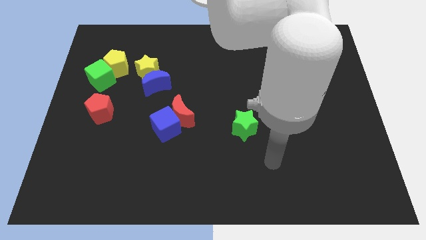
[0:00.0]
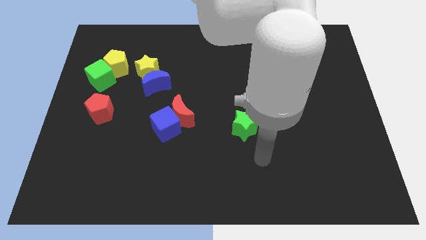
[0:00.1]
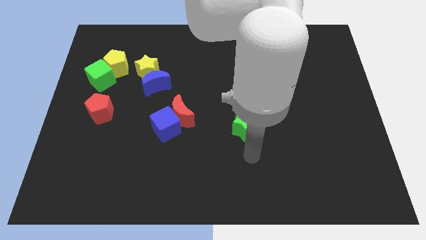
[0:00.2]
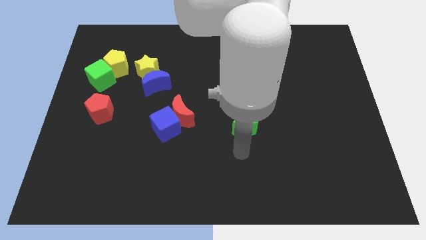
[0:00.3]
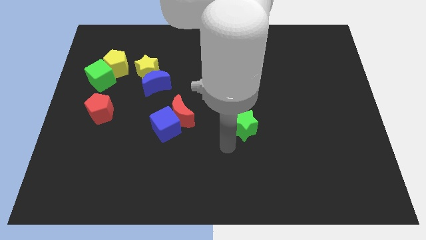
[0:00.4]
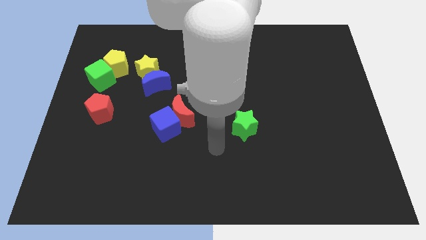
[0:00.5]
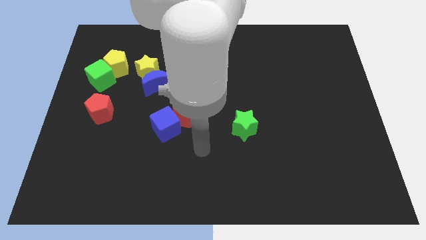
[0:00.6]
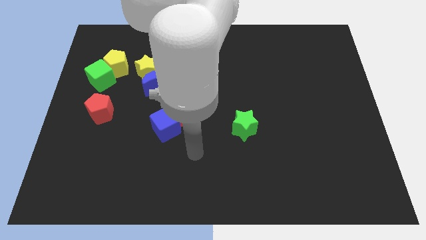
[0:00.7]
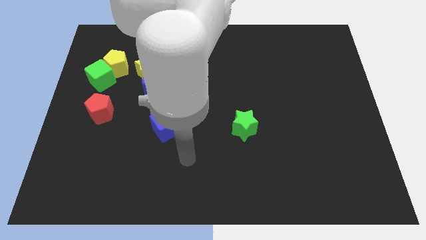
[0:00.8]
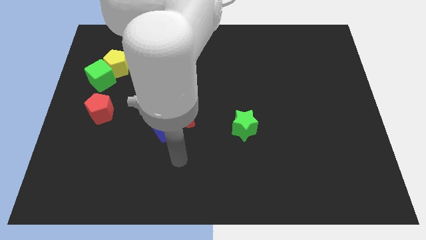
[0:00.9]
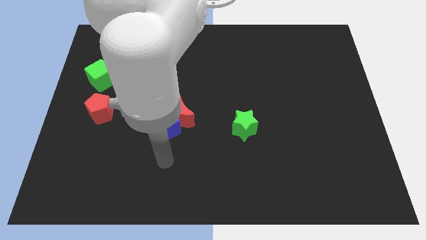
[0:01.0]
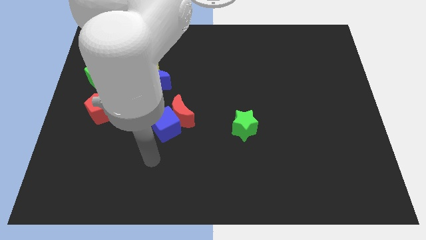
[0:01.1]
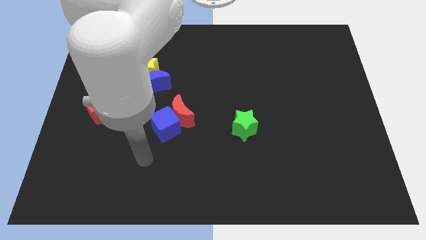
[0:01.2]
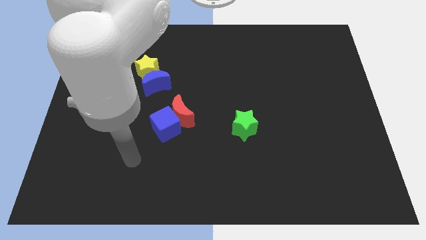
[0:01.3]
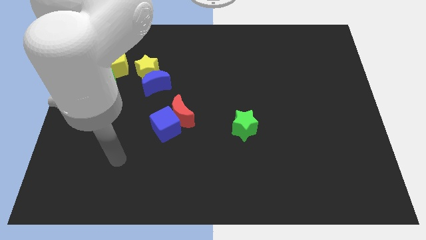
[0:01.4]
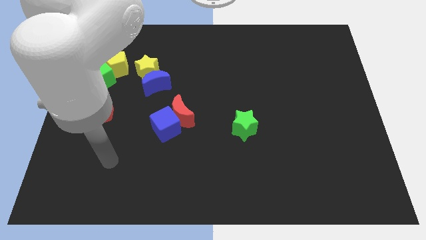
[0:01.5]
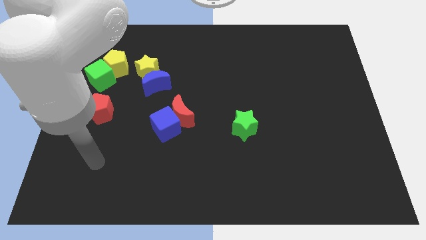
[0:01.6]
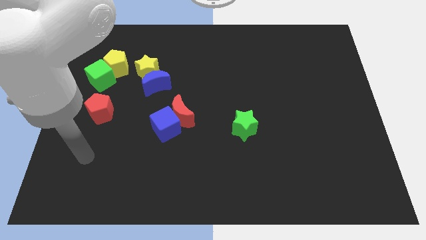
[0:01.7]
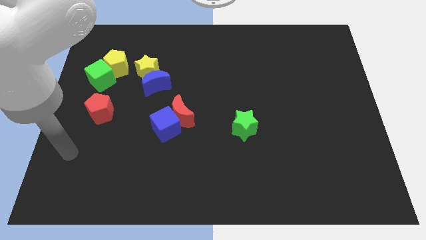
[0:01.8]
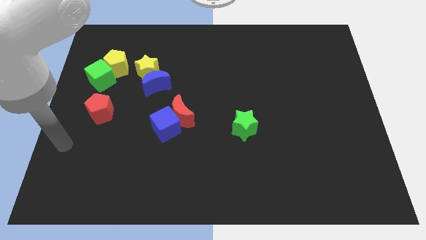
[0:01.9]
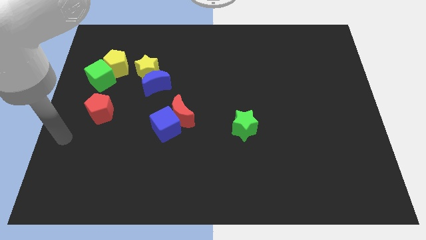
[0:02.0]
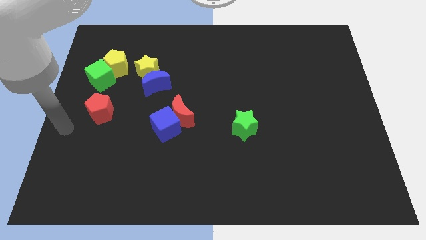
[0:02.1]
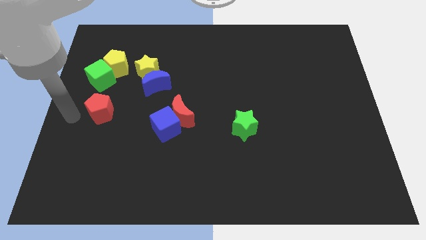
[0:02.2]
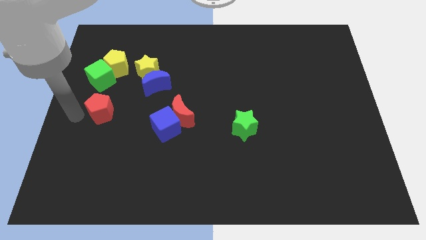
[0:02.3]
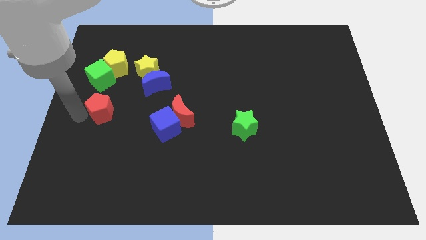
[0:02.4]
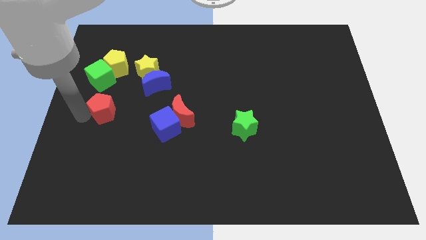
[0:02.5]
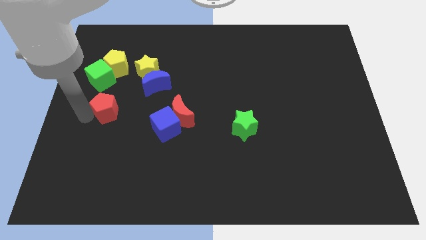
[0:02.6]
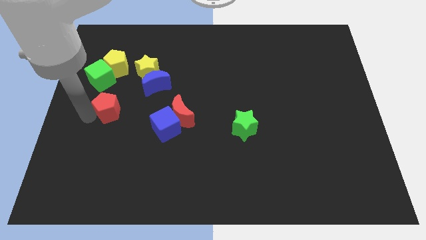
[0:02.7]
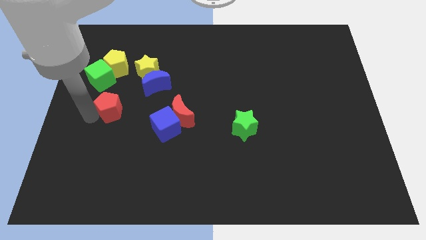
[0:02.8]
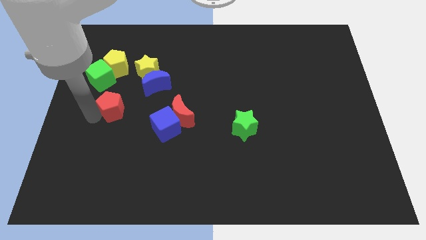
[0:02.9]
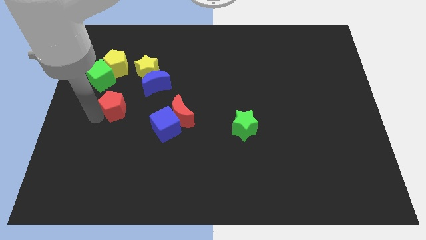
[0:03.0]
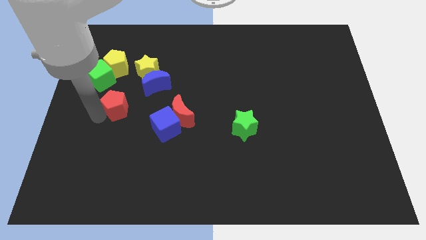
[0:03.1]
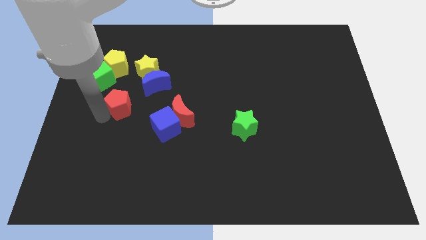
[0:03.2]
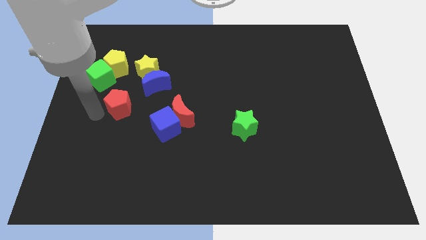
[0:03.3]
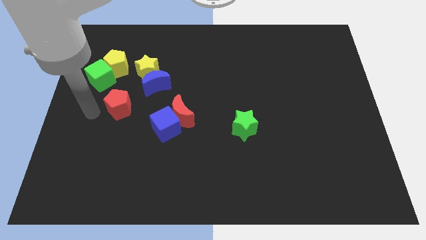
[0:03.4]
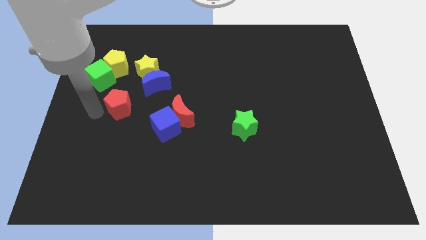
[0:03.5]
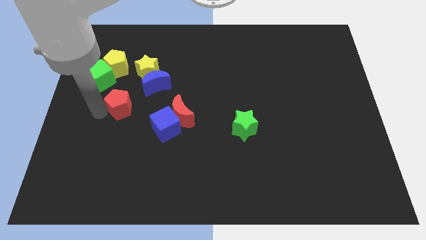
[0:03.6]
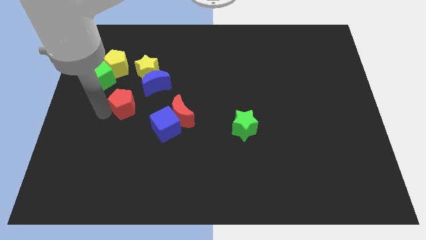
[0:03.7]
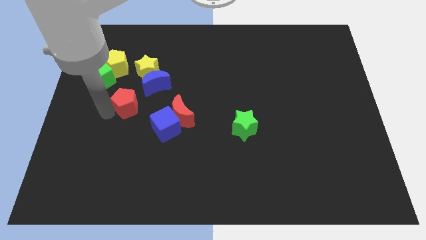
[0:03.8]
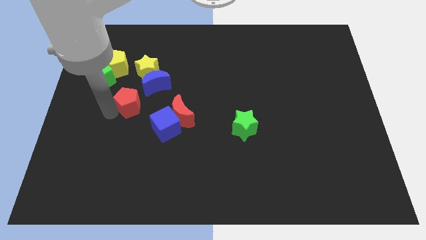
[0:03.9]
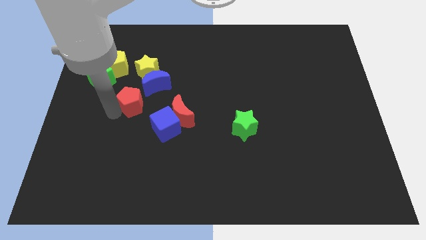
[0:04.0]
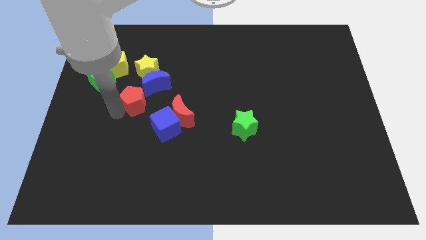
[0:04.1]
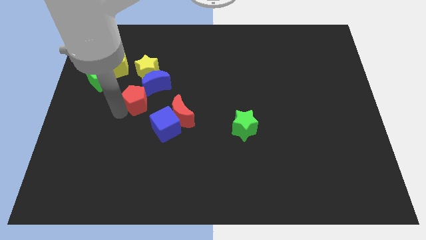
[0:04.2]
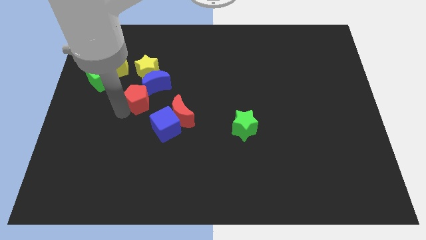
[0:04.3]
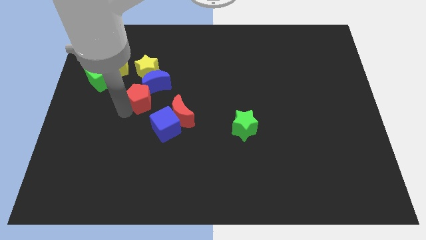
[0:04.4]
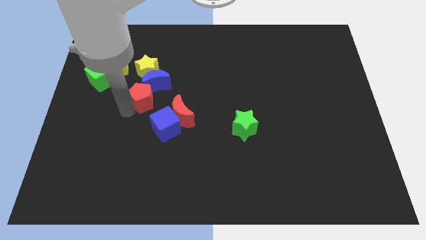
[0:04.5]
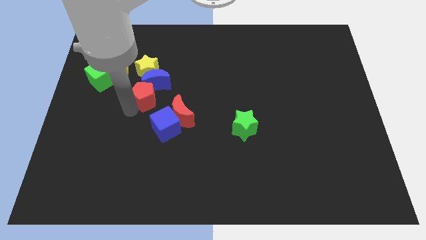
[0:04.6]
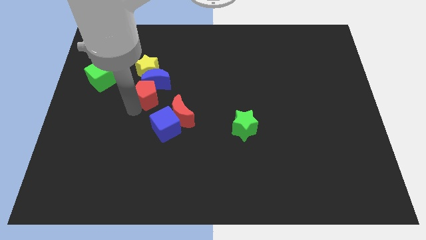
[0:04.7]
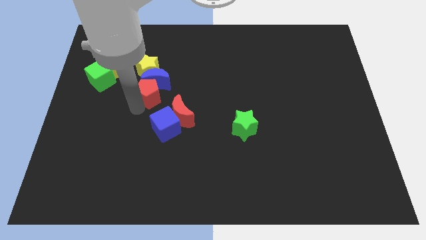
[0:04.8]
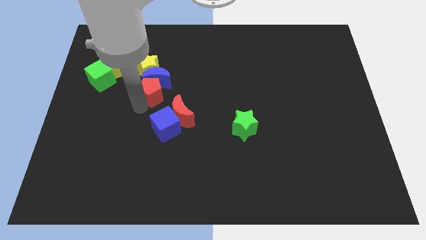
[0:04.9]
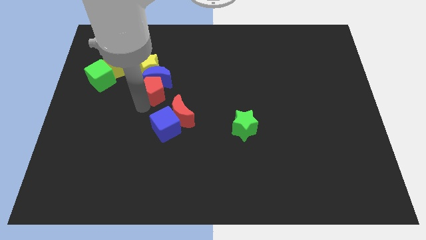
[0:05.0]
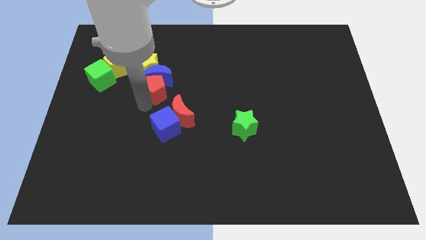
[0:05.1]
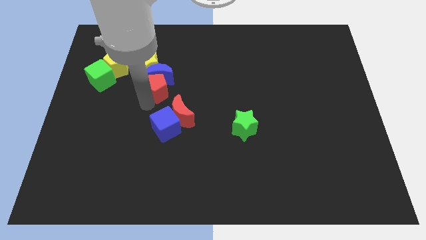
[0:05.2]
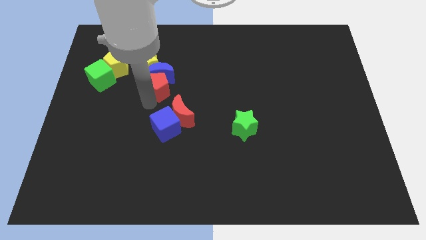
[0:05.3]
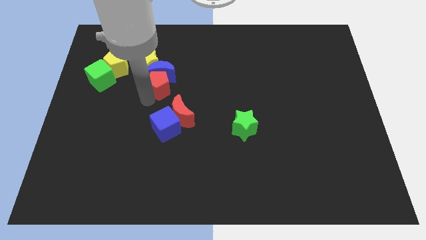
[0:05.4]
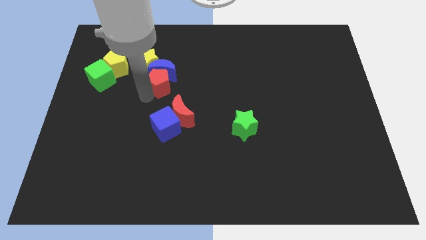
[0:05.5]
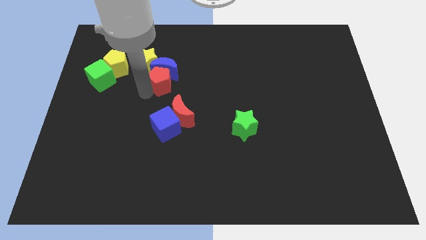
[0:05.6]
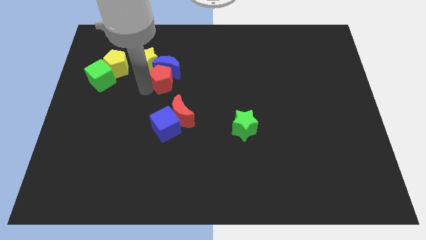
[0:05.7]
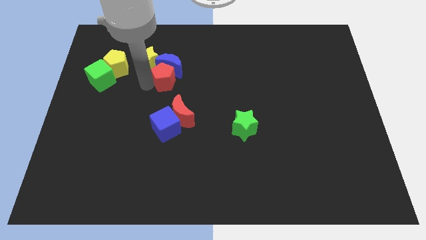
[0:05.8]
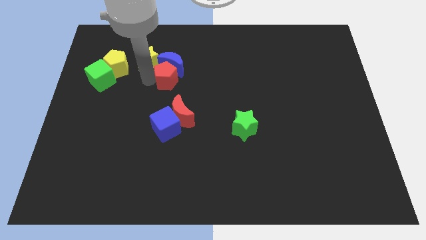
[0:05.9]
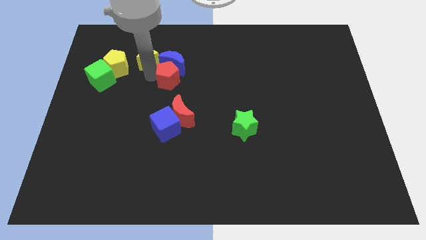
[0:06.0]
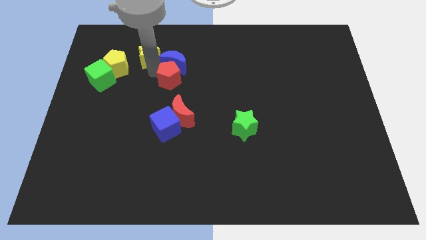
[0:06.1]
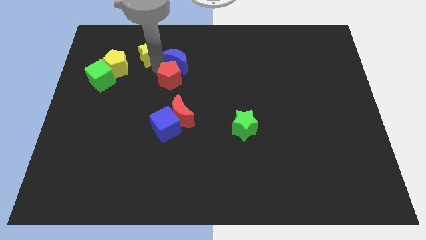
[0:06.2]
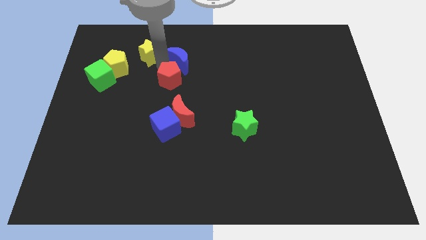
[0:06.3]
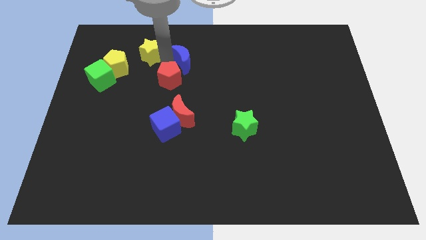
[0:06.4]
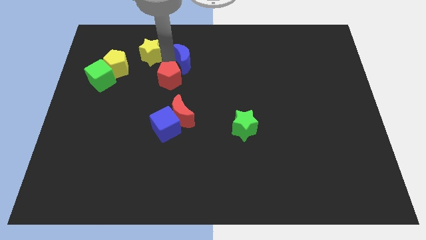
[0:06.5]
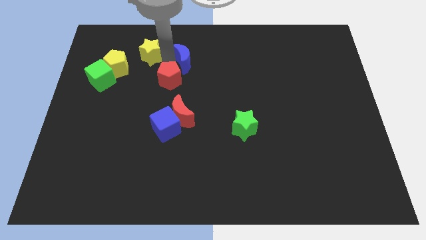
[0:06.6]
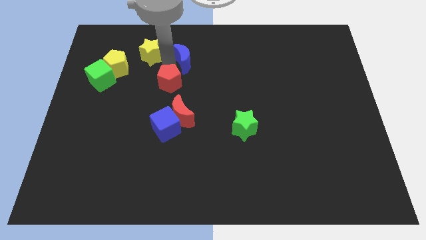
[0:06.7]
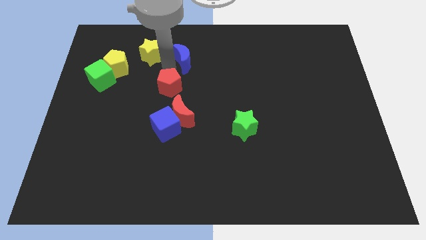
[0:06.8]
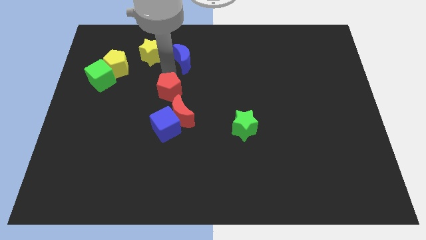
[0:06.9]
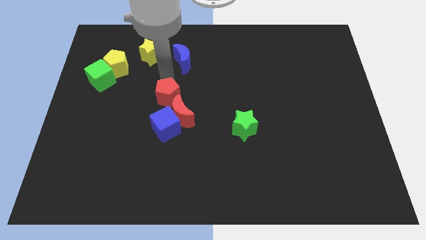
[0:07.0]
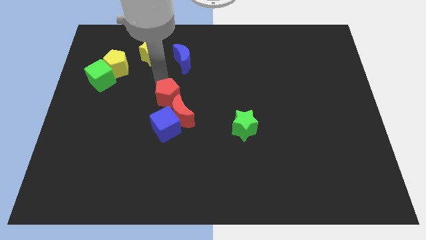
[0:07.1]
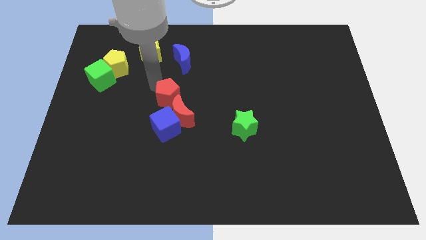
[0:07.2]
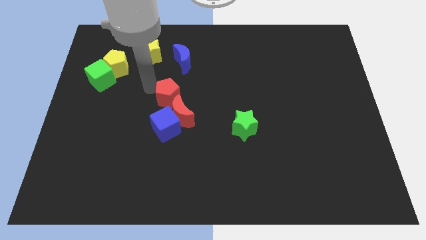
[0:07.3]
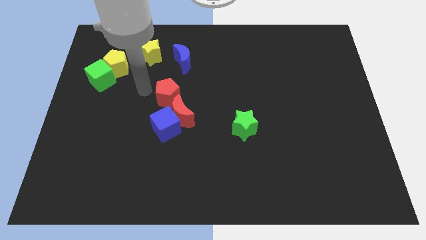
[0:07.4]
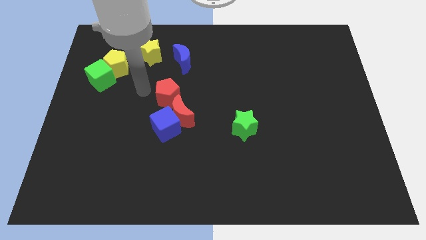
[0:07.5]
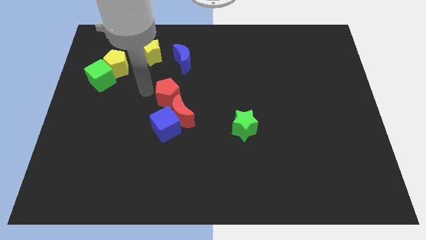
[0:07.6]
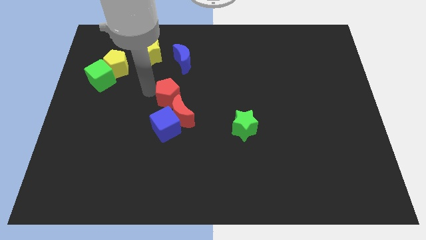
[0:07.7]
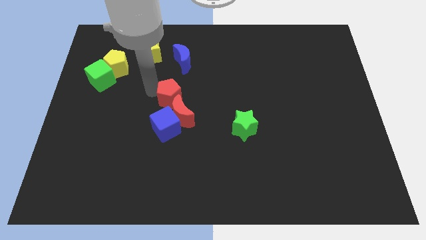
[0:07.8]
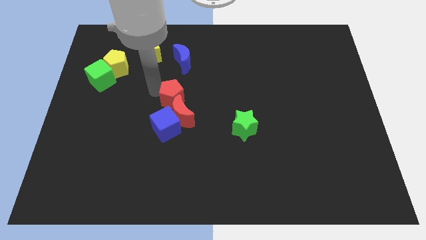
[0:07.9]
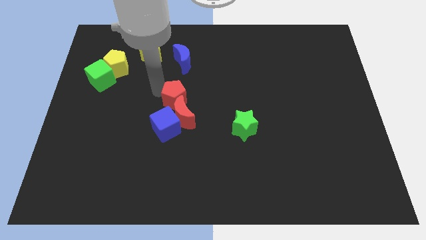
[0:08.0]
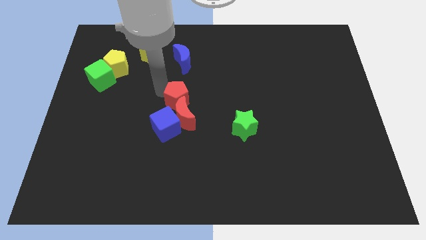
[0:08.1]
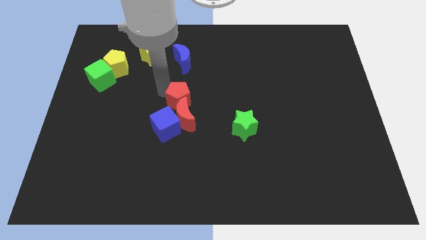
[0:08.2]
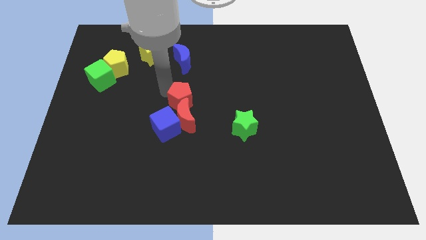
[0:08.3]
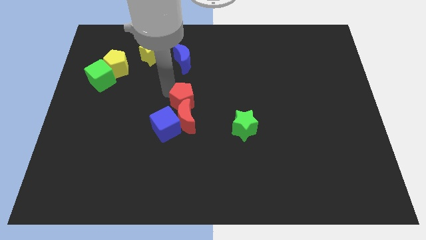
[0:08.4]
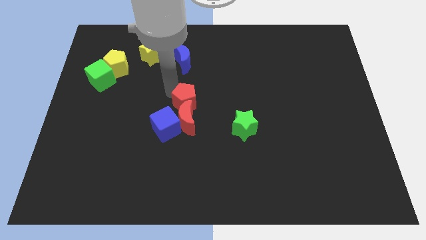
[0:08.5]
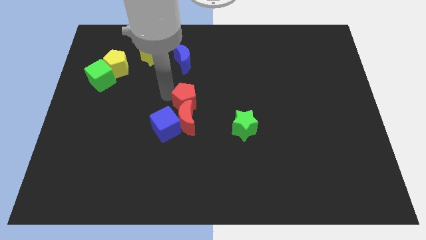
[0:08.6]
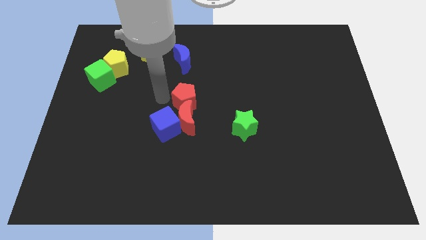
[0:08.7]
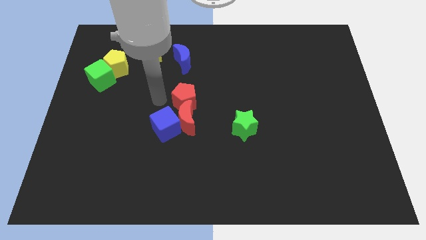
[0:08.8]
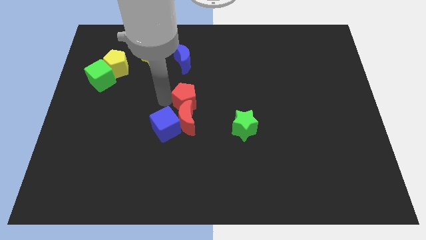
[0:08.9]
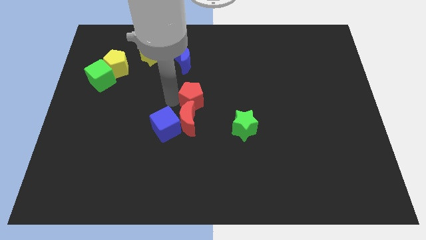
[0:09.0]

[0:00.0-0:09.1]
push the red pentagon to the right
